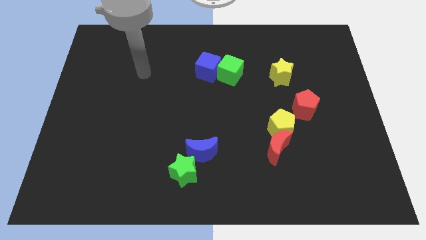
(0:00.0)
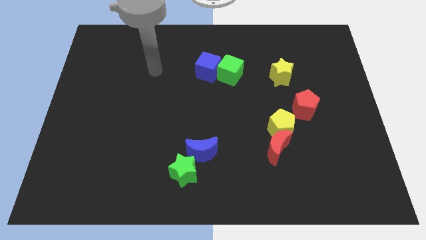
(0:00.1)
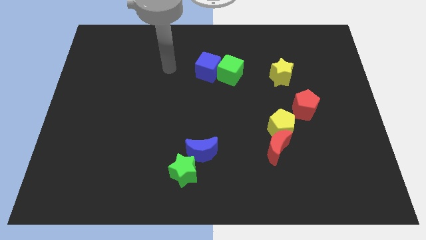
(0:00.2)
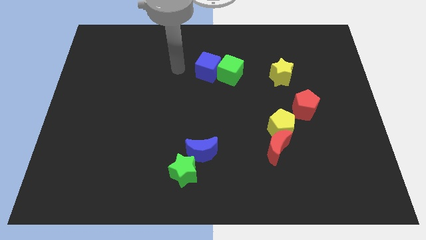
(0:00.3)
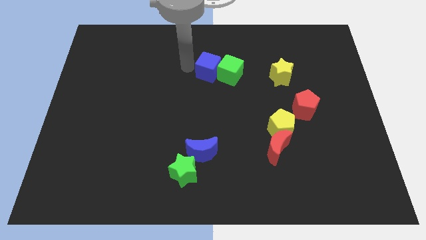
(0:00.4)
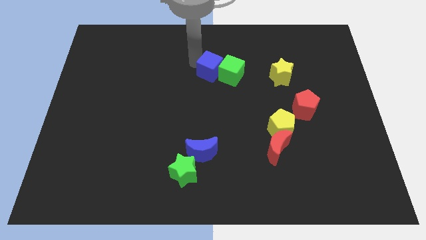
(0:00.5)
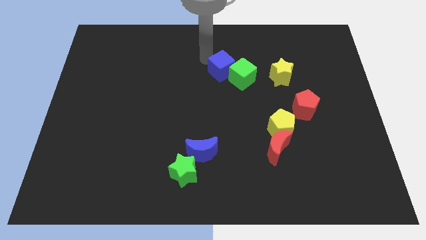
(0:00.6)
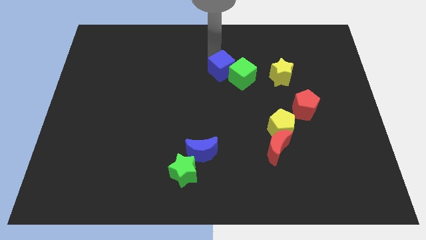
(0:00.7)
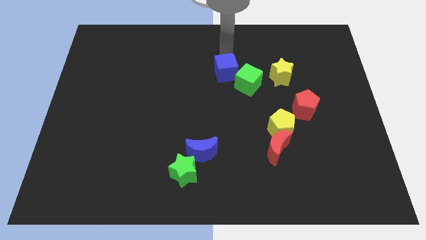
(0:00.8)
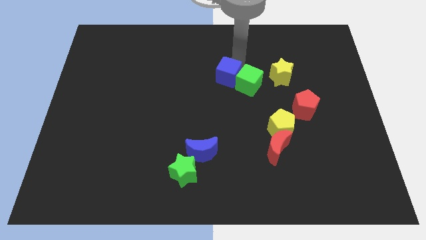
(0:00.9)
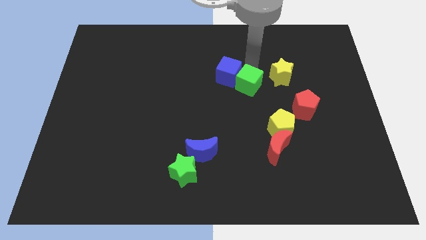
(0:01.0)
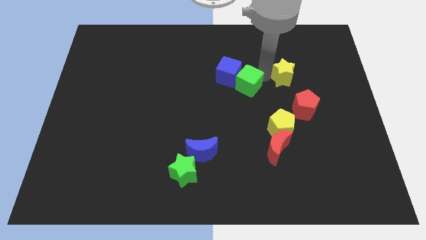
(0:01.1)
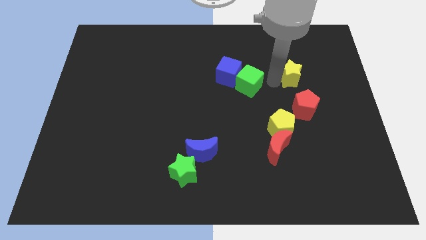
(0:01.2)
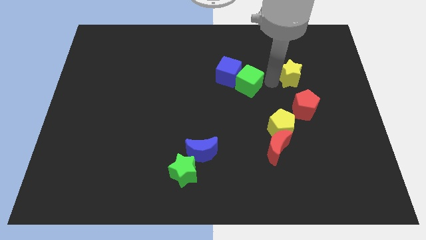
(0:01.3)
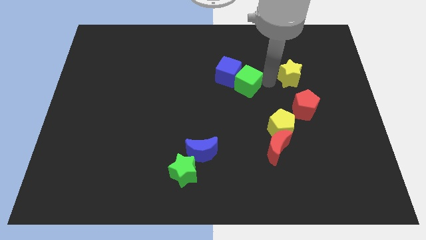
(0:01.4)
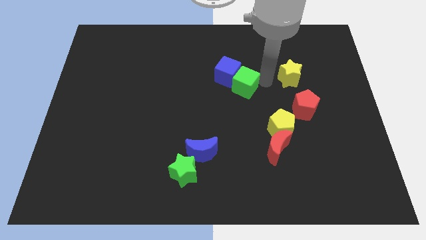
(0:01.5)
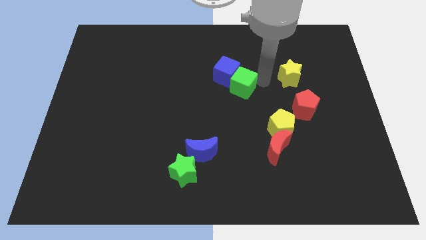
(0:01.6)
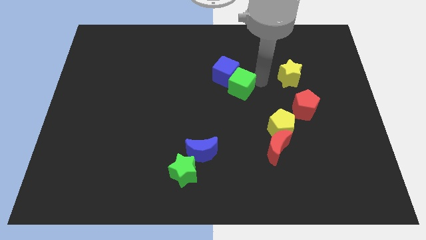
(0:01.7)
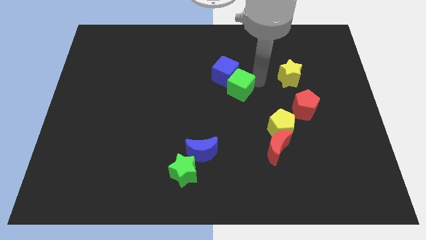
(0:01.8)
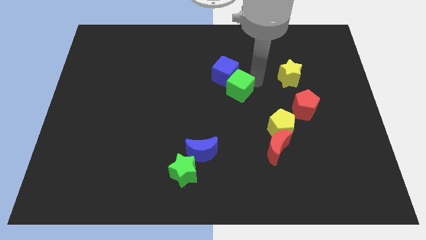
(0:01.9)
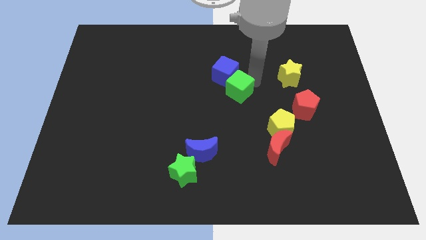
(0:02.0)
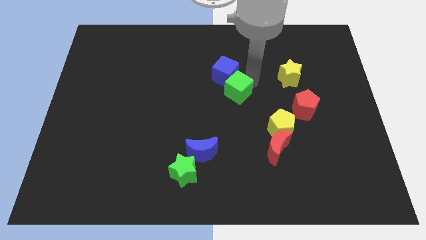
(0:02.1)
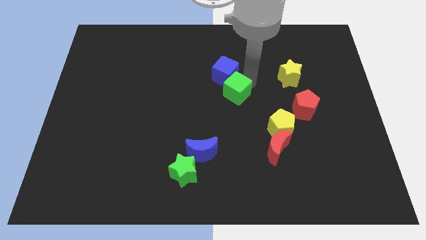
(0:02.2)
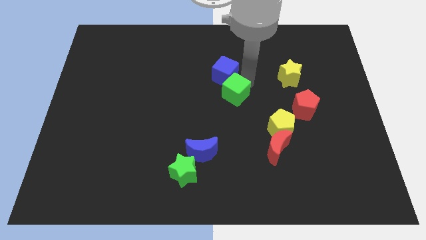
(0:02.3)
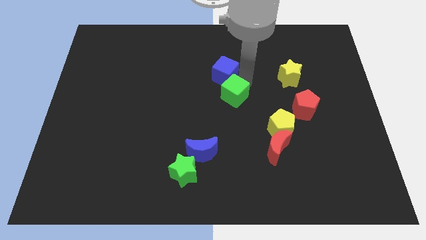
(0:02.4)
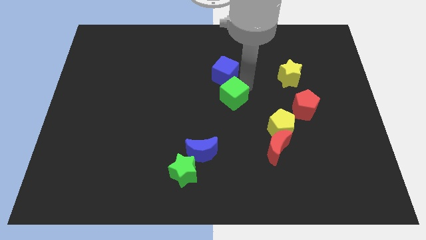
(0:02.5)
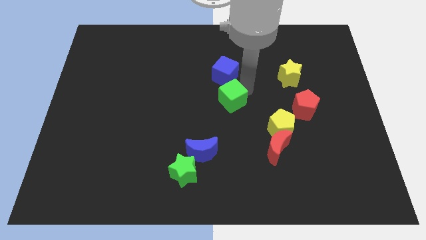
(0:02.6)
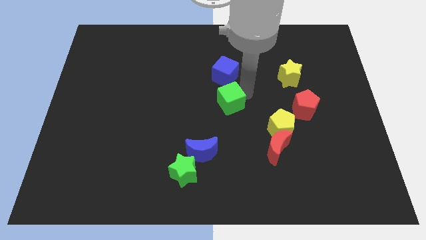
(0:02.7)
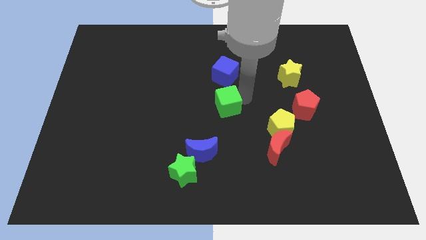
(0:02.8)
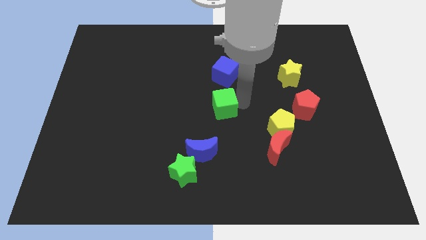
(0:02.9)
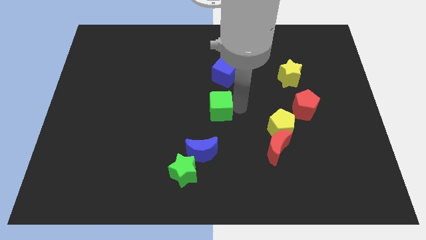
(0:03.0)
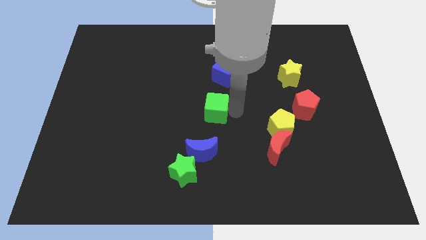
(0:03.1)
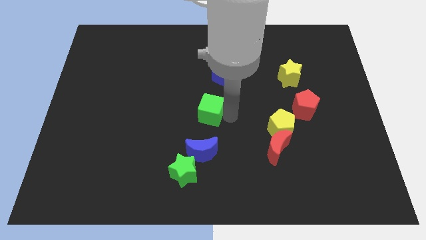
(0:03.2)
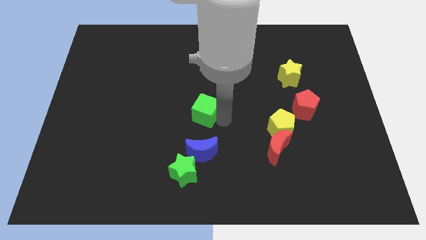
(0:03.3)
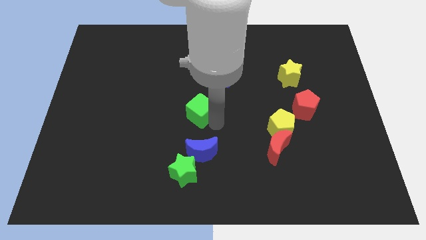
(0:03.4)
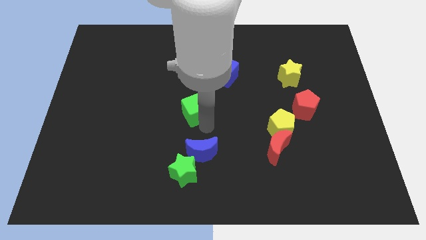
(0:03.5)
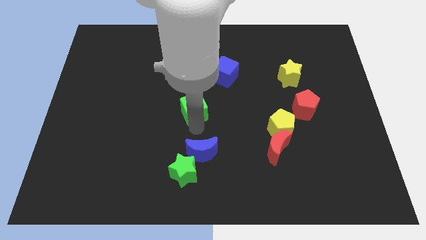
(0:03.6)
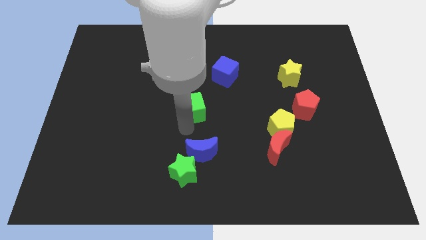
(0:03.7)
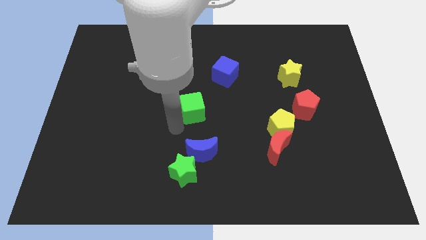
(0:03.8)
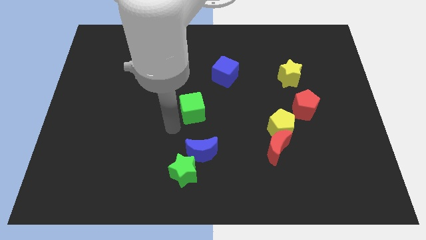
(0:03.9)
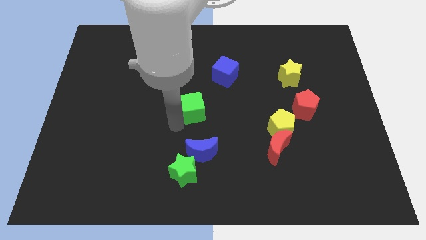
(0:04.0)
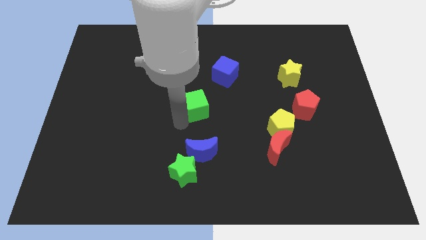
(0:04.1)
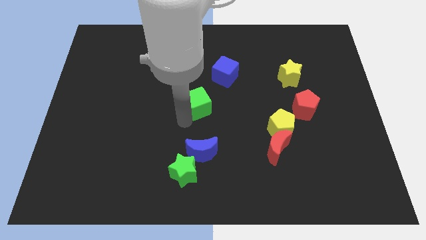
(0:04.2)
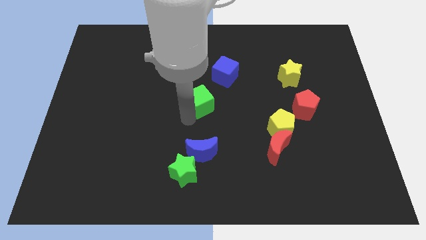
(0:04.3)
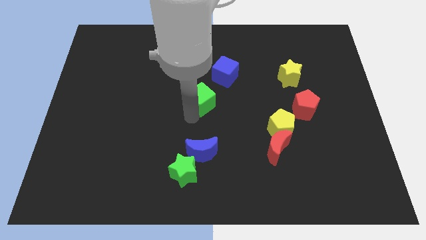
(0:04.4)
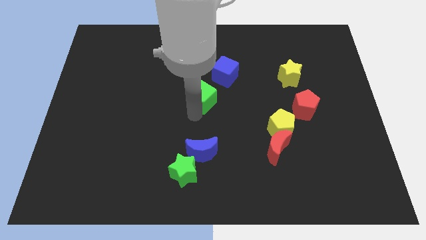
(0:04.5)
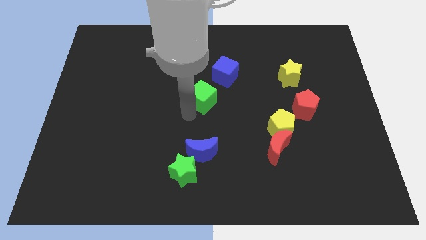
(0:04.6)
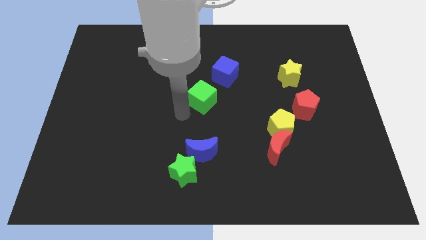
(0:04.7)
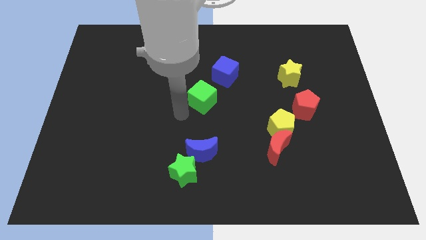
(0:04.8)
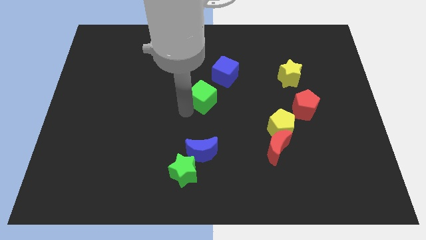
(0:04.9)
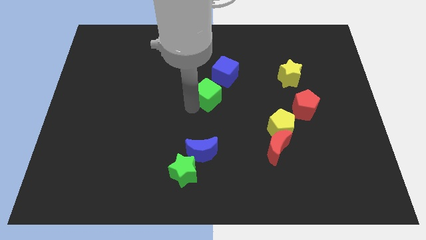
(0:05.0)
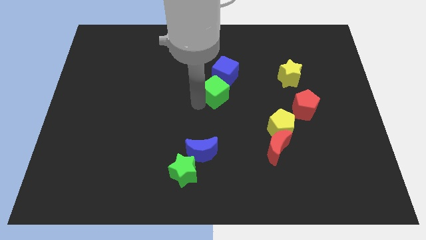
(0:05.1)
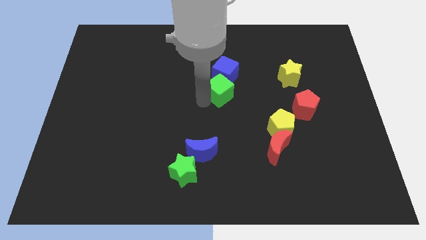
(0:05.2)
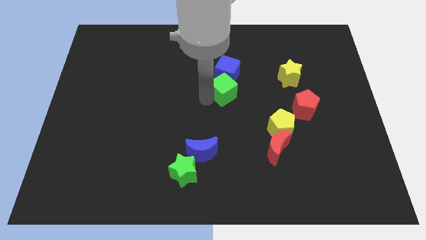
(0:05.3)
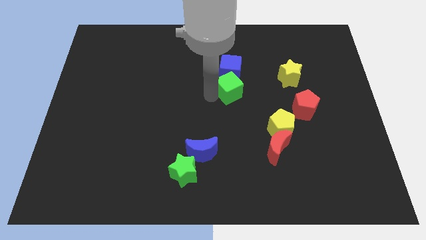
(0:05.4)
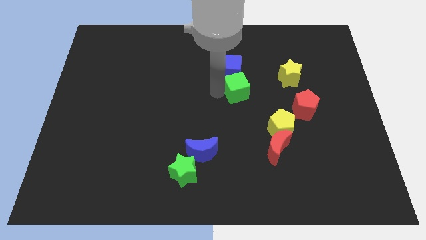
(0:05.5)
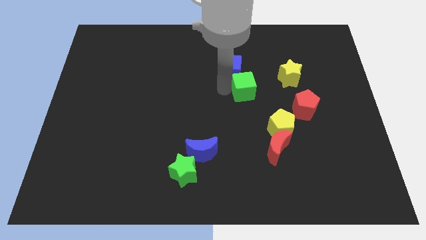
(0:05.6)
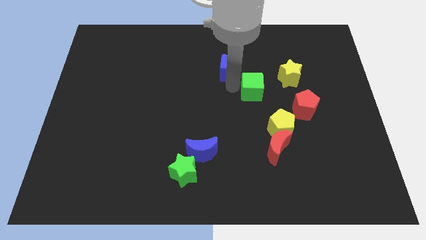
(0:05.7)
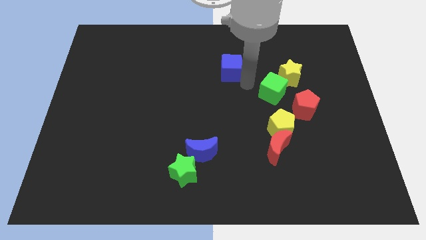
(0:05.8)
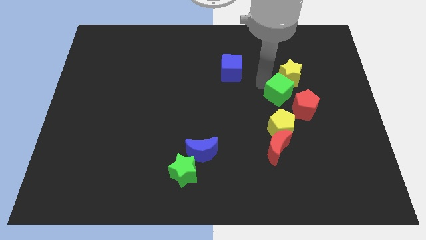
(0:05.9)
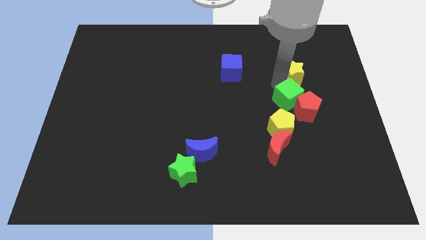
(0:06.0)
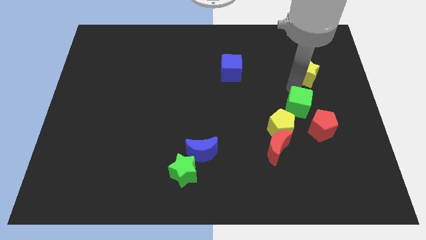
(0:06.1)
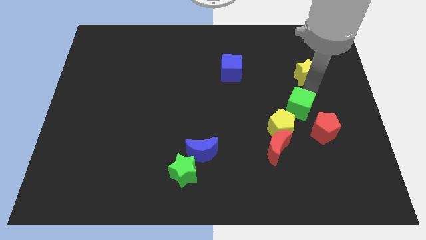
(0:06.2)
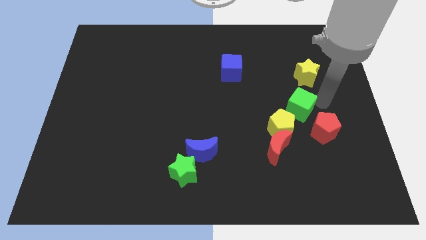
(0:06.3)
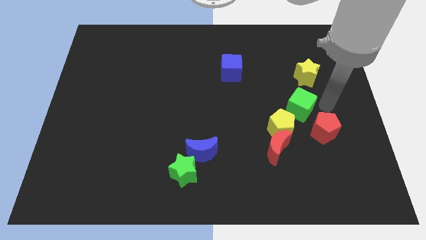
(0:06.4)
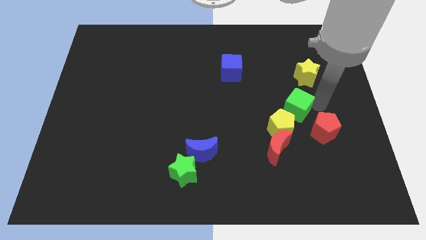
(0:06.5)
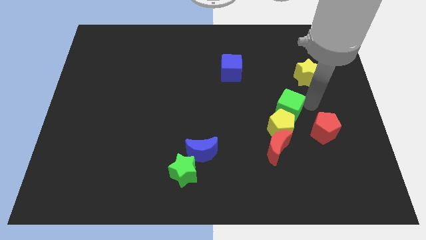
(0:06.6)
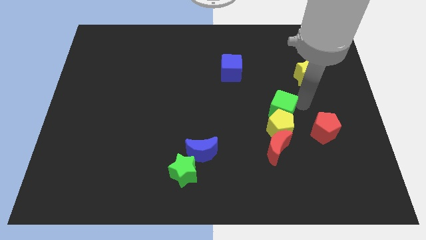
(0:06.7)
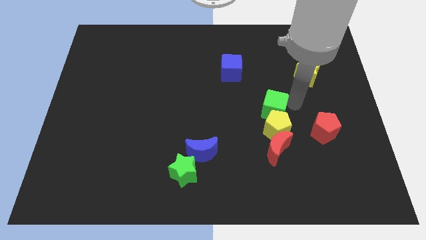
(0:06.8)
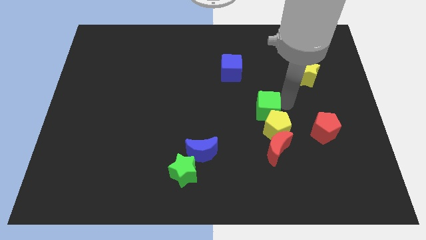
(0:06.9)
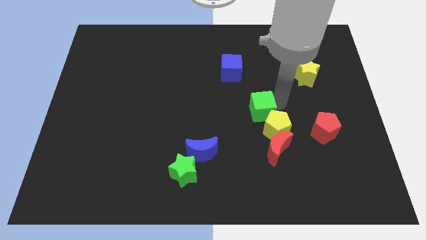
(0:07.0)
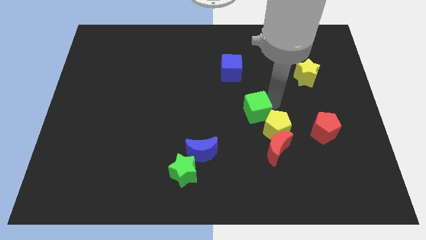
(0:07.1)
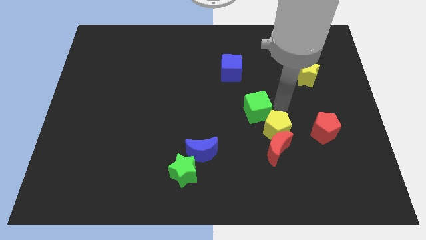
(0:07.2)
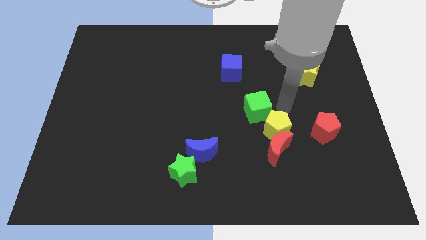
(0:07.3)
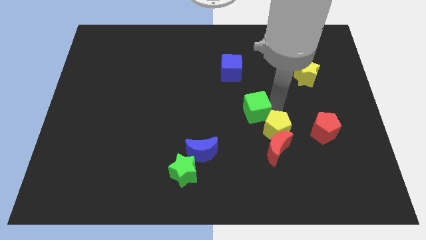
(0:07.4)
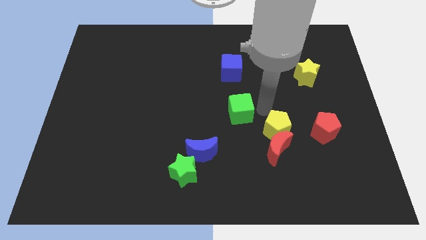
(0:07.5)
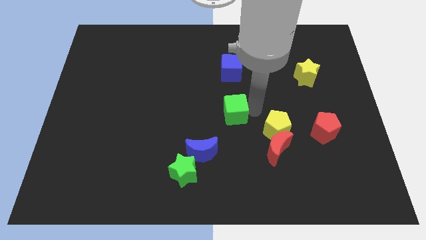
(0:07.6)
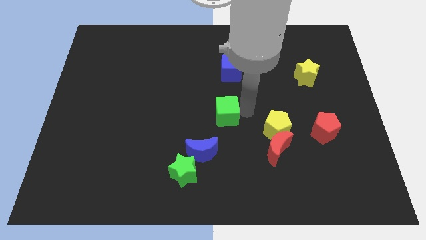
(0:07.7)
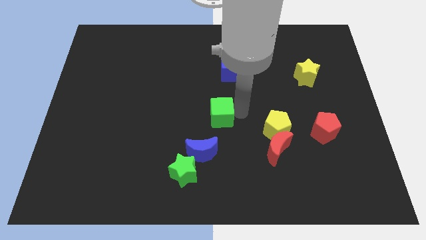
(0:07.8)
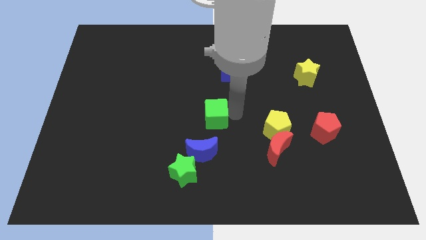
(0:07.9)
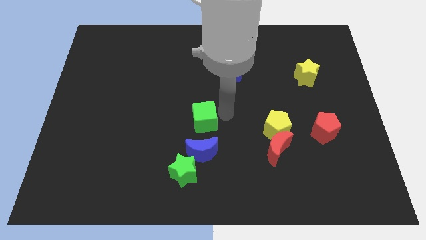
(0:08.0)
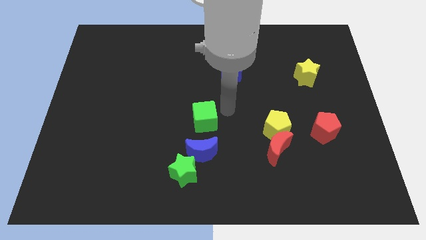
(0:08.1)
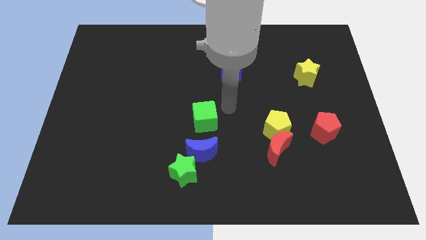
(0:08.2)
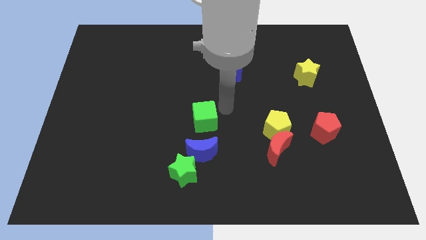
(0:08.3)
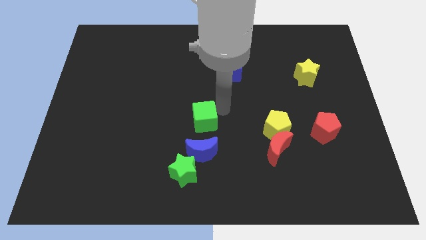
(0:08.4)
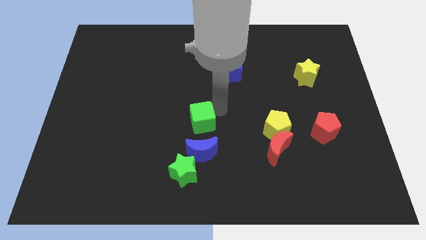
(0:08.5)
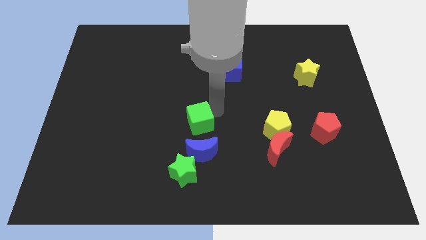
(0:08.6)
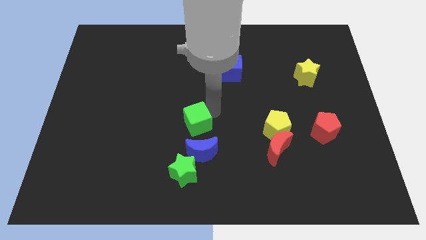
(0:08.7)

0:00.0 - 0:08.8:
slide the green cube to the top left side of the blue moon
